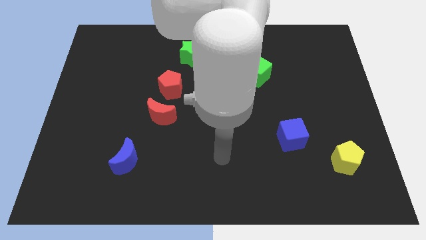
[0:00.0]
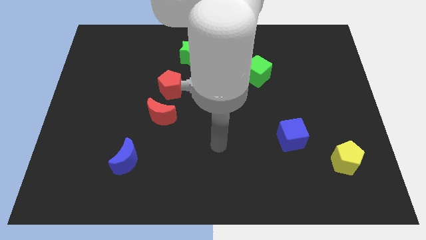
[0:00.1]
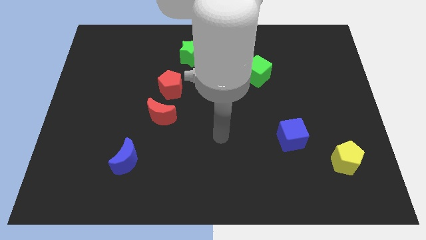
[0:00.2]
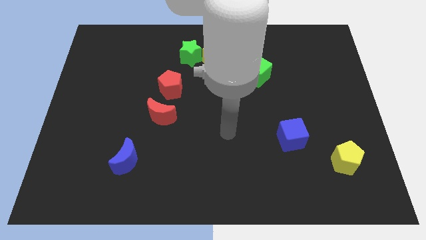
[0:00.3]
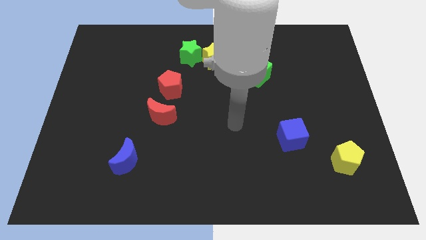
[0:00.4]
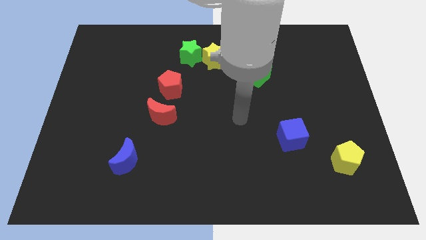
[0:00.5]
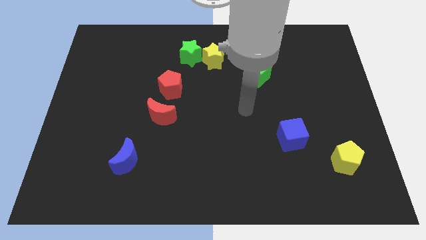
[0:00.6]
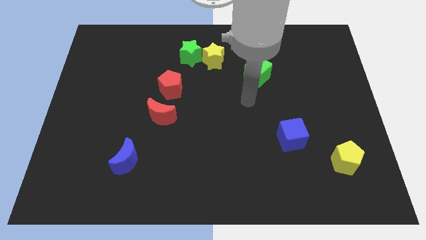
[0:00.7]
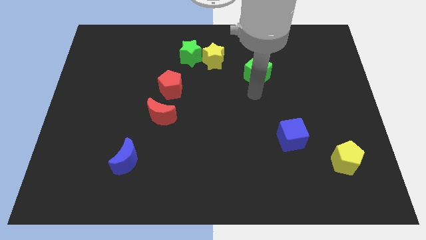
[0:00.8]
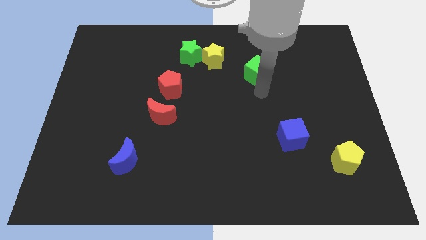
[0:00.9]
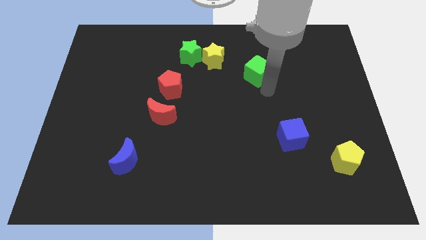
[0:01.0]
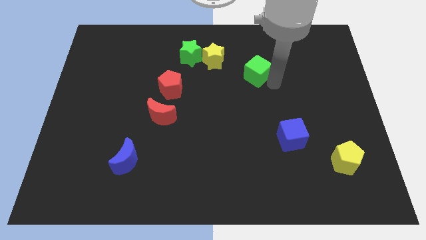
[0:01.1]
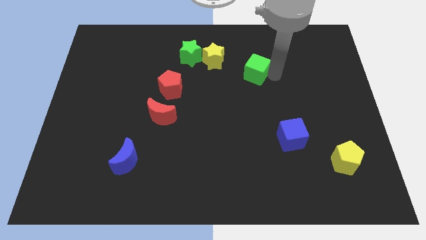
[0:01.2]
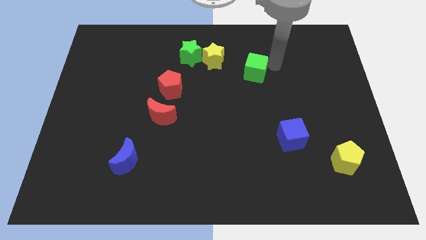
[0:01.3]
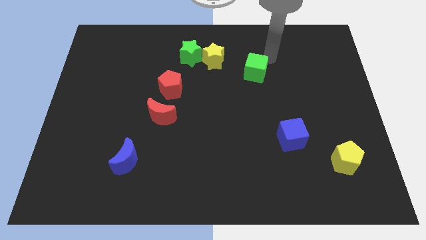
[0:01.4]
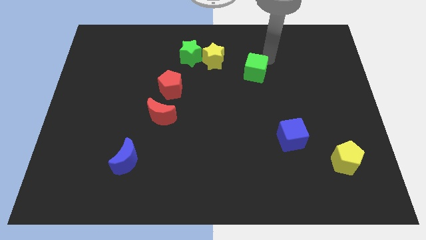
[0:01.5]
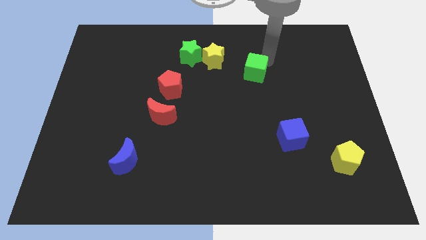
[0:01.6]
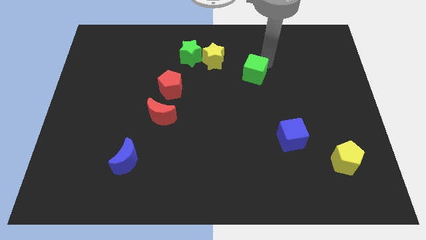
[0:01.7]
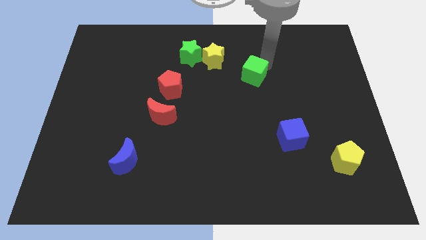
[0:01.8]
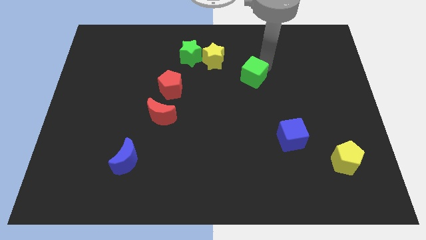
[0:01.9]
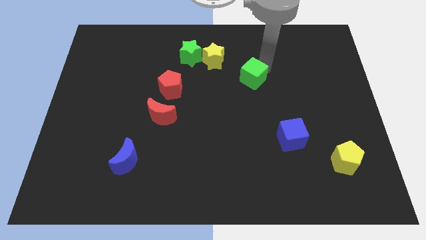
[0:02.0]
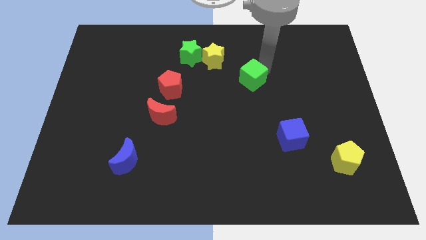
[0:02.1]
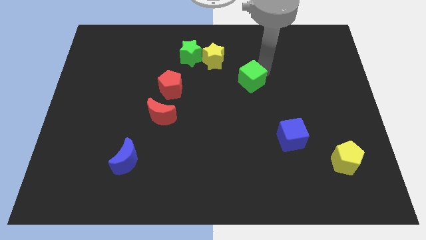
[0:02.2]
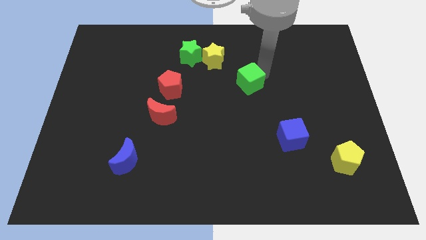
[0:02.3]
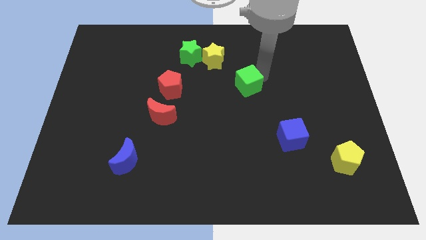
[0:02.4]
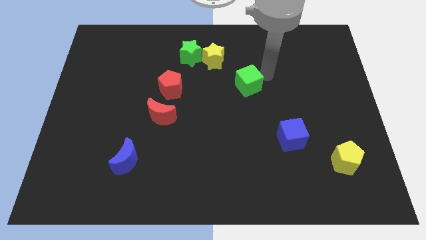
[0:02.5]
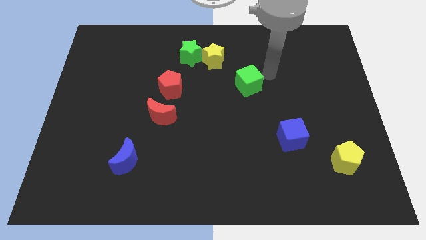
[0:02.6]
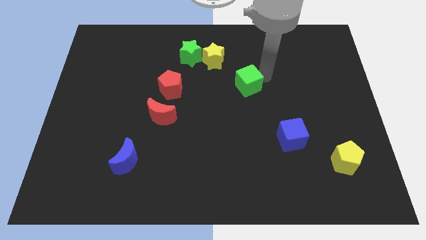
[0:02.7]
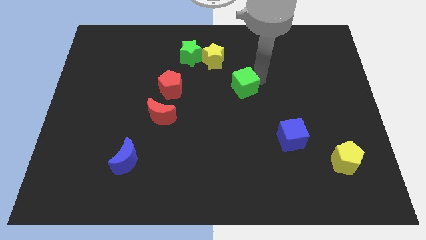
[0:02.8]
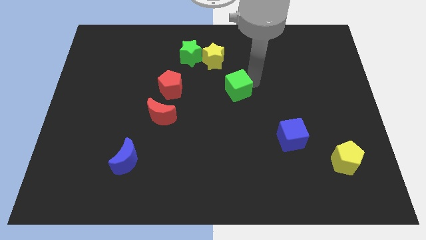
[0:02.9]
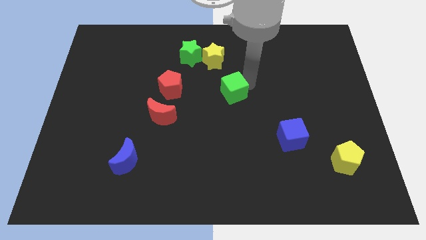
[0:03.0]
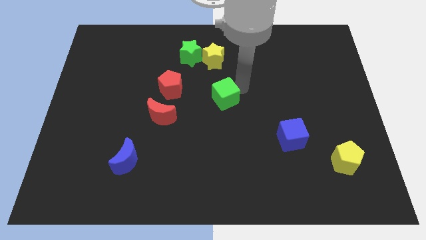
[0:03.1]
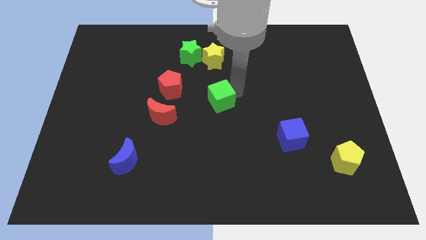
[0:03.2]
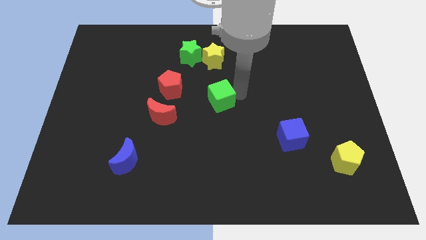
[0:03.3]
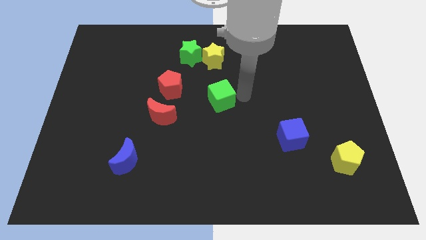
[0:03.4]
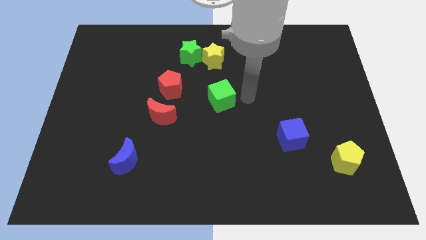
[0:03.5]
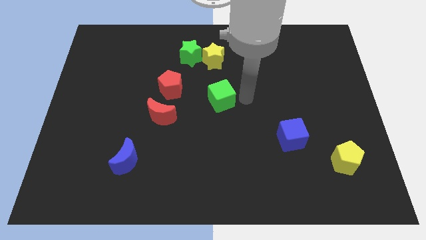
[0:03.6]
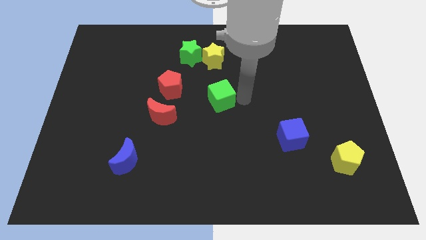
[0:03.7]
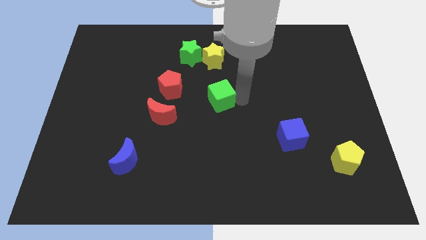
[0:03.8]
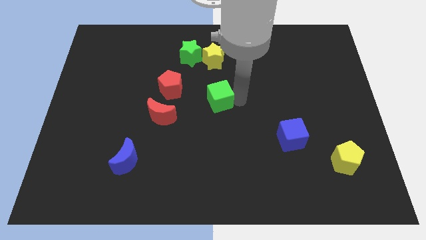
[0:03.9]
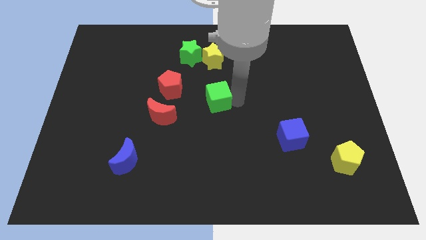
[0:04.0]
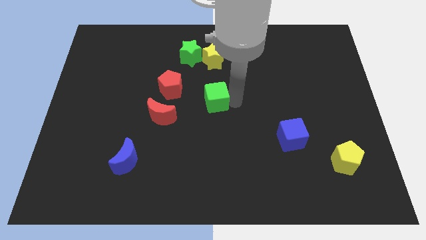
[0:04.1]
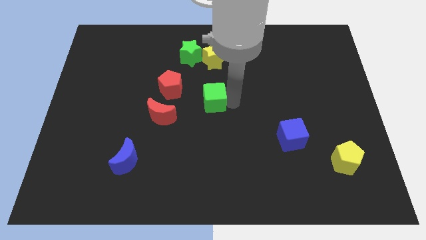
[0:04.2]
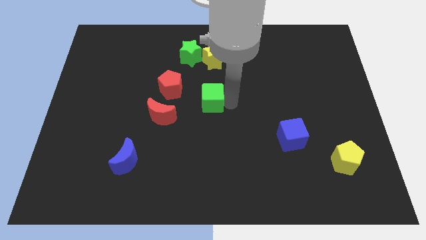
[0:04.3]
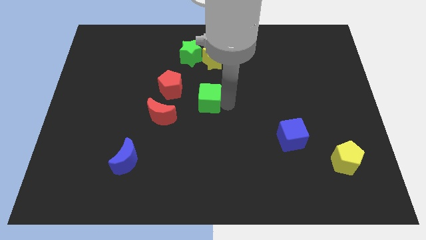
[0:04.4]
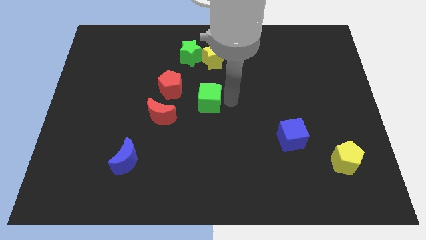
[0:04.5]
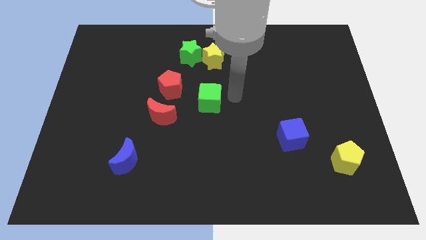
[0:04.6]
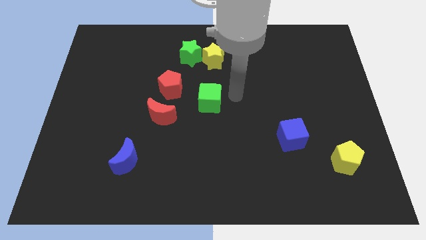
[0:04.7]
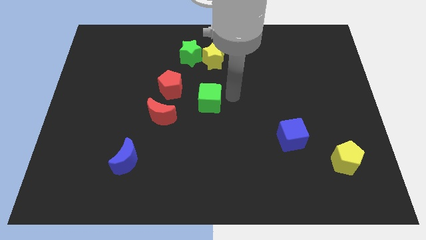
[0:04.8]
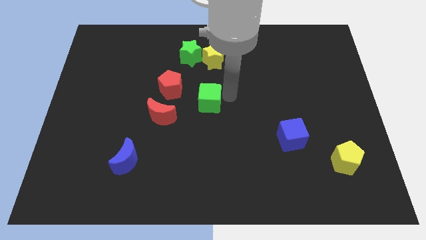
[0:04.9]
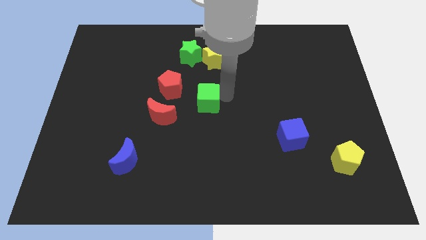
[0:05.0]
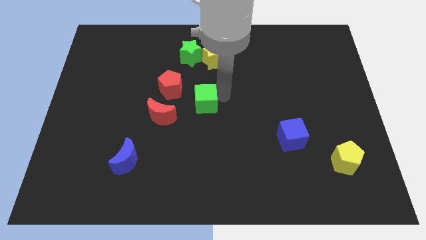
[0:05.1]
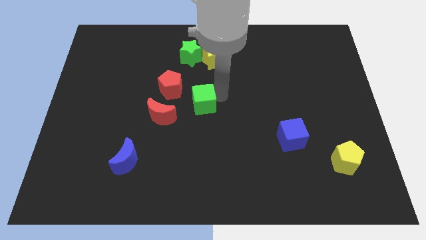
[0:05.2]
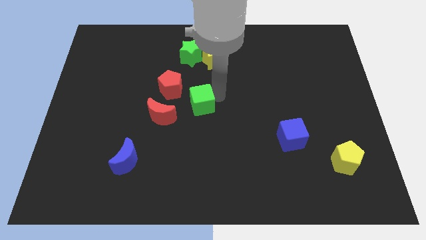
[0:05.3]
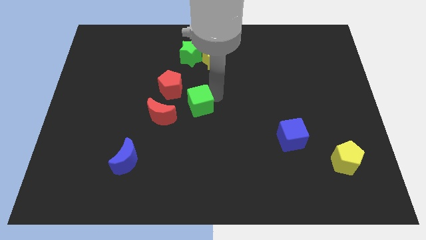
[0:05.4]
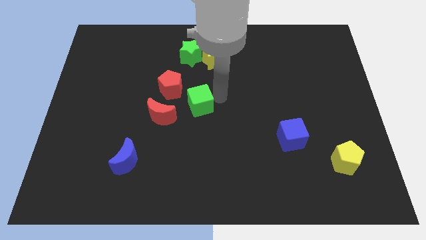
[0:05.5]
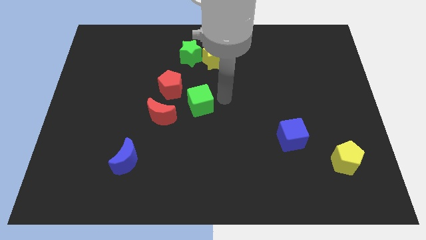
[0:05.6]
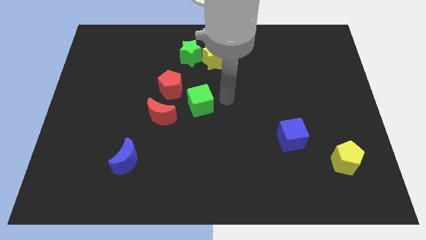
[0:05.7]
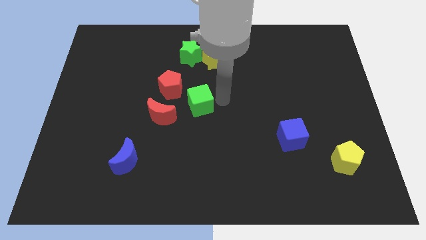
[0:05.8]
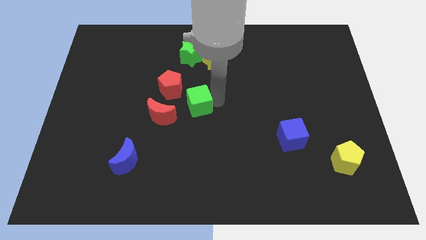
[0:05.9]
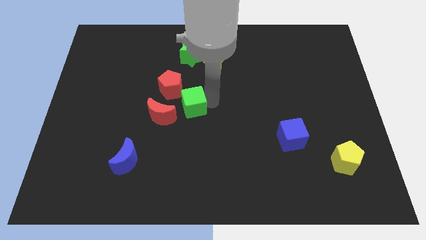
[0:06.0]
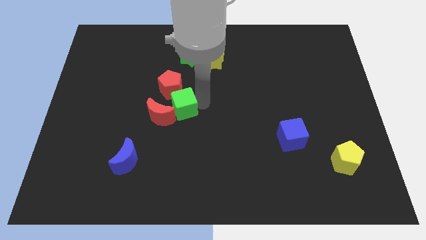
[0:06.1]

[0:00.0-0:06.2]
slide the green cube next to the red moon

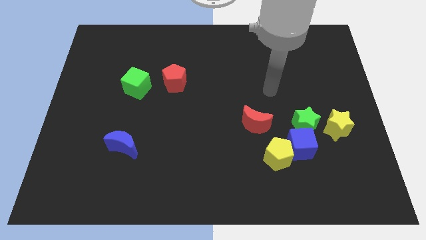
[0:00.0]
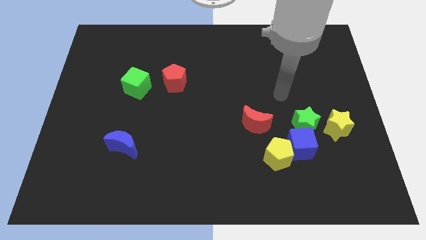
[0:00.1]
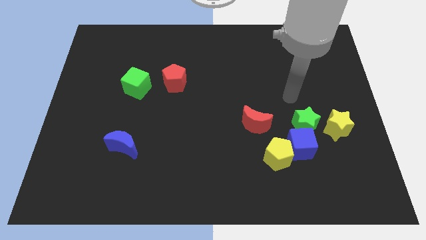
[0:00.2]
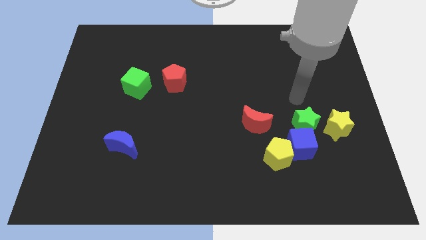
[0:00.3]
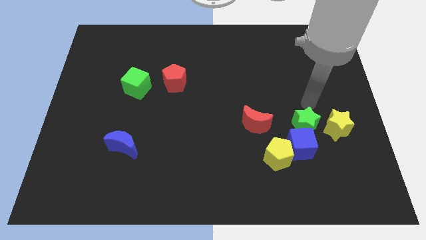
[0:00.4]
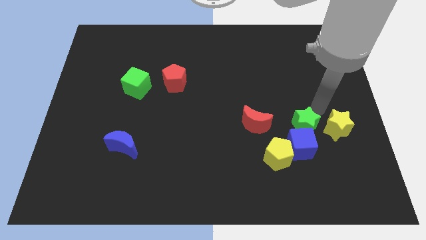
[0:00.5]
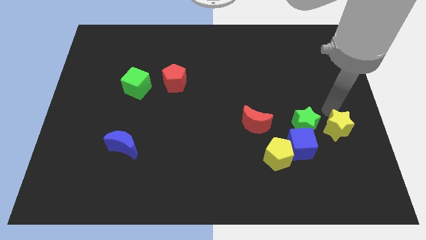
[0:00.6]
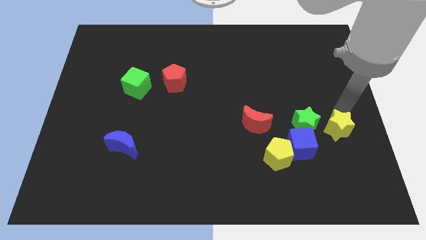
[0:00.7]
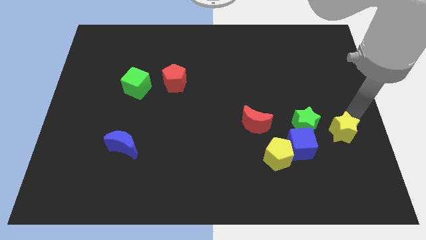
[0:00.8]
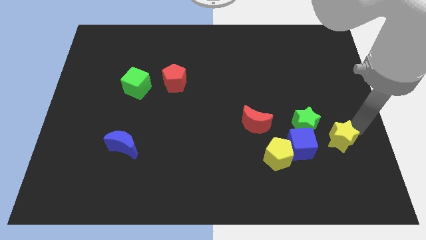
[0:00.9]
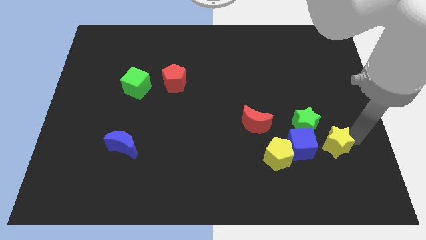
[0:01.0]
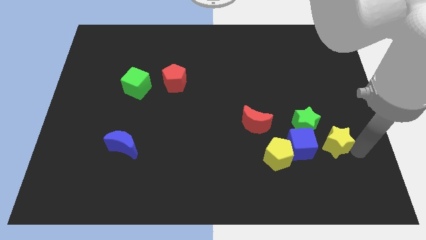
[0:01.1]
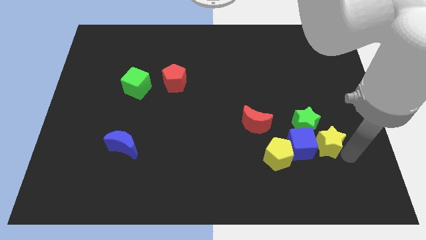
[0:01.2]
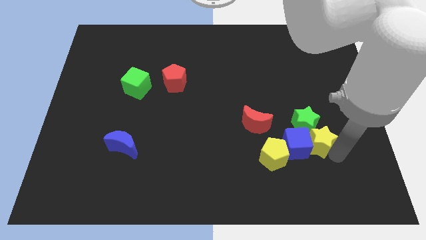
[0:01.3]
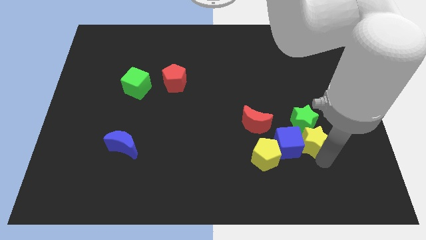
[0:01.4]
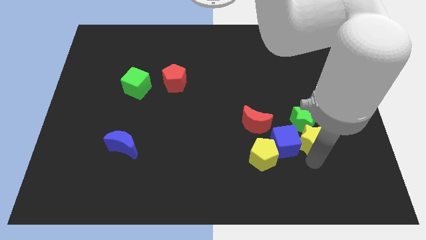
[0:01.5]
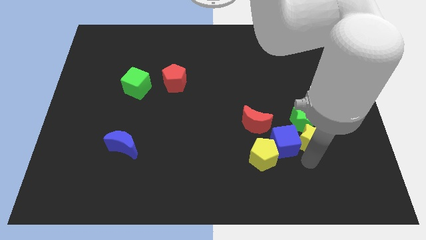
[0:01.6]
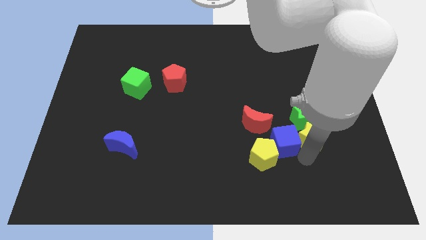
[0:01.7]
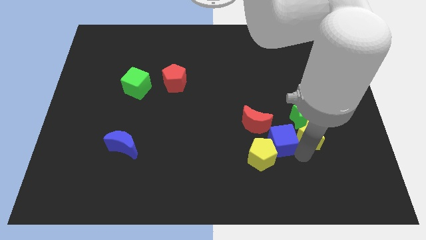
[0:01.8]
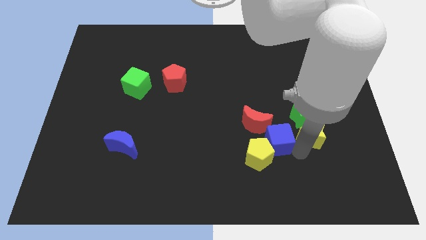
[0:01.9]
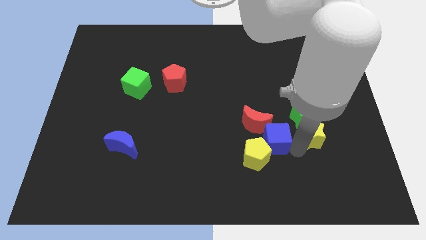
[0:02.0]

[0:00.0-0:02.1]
push the blue cube close to the red moon
